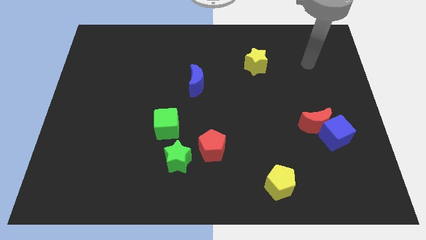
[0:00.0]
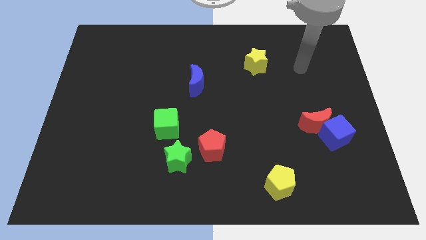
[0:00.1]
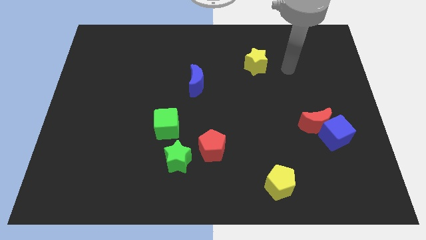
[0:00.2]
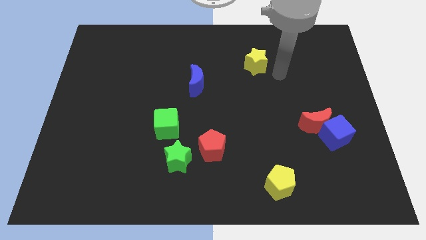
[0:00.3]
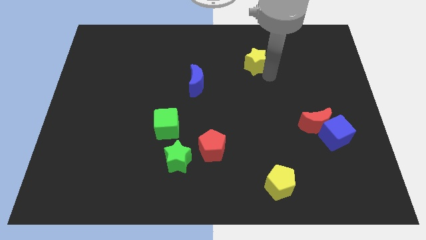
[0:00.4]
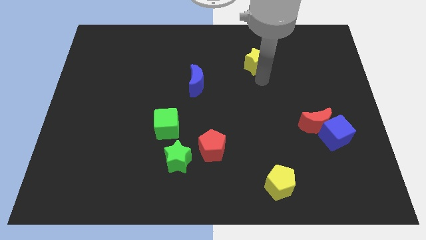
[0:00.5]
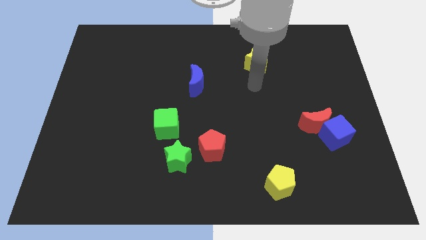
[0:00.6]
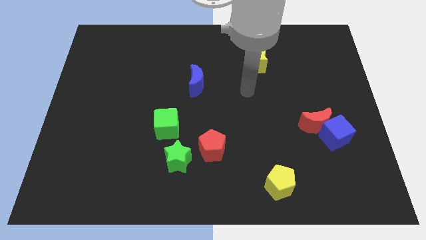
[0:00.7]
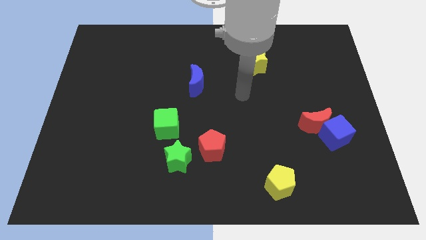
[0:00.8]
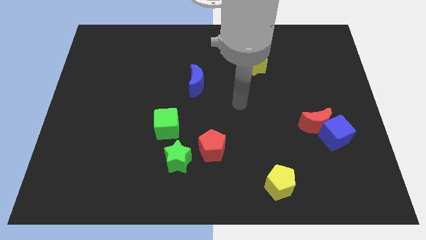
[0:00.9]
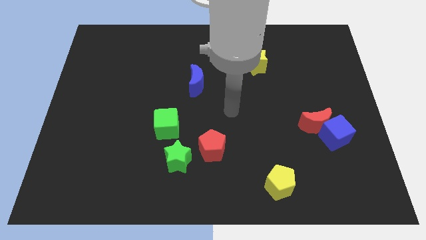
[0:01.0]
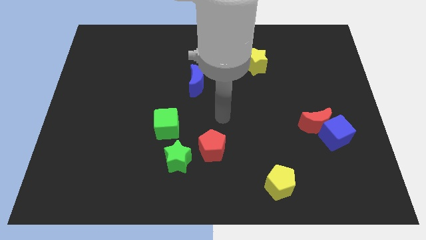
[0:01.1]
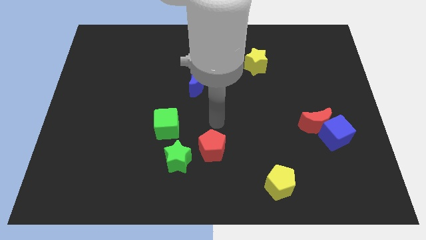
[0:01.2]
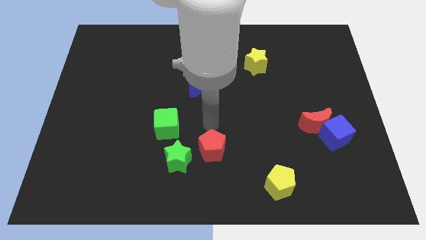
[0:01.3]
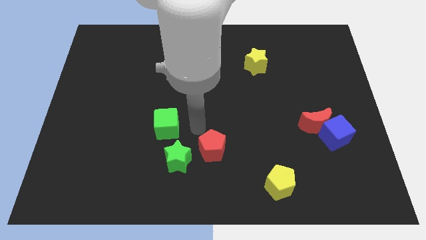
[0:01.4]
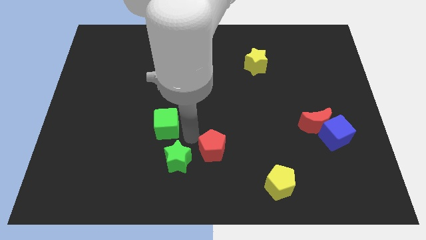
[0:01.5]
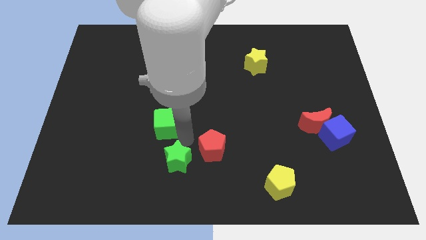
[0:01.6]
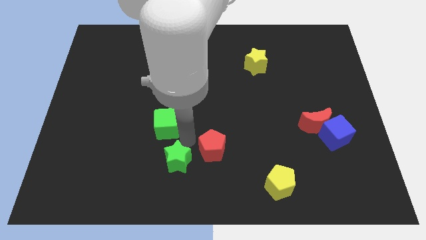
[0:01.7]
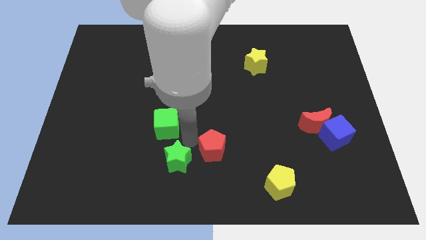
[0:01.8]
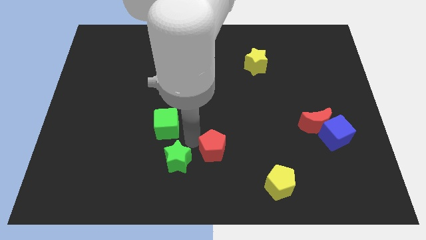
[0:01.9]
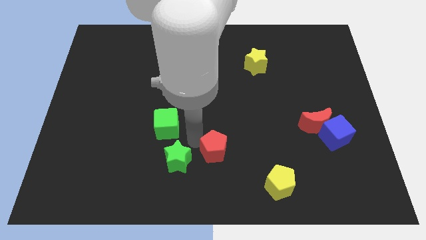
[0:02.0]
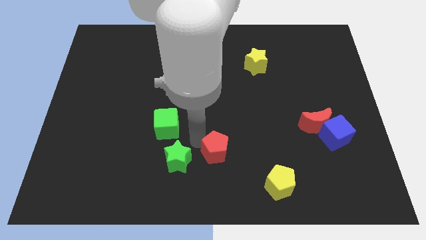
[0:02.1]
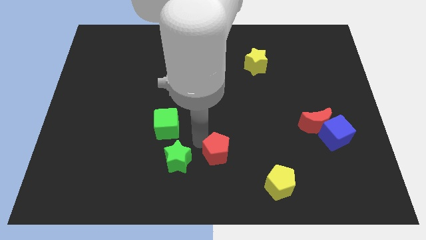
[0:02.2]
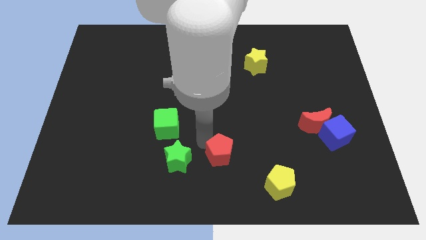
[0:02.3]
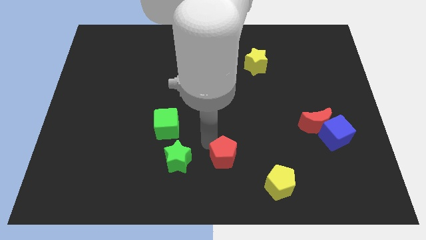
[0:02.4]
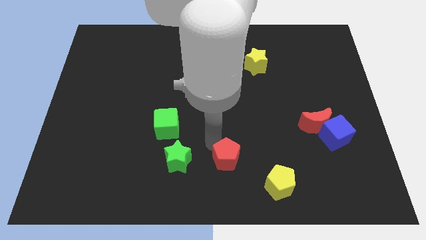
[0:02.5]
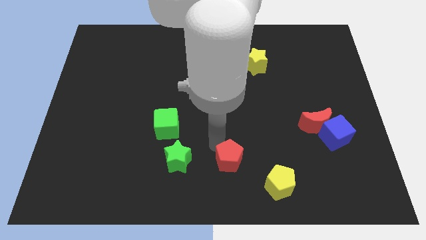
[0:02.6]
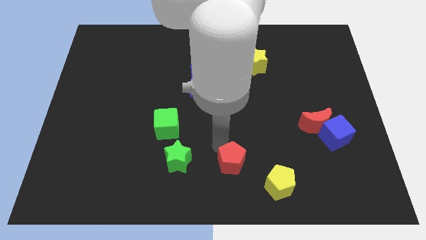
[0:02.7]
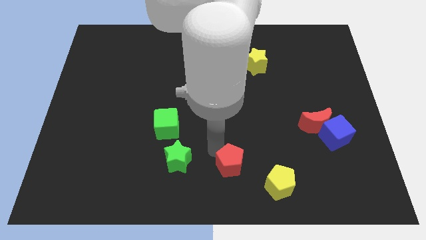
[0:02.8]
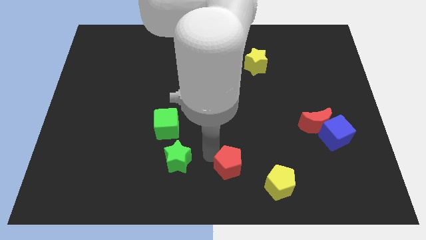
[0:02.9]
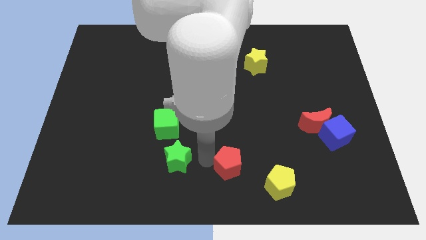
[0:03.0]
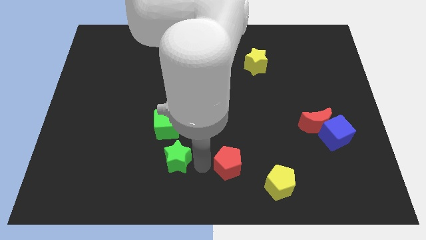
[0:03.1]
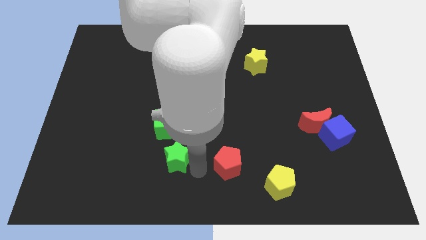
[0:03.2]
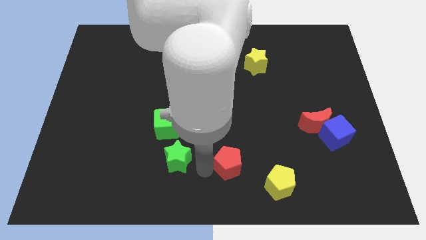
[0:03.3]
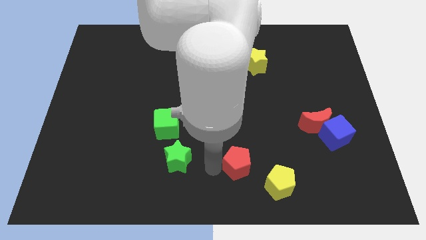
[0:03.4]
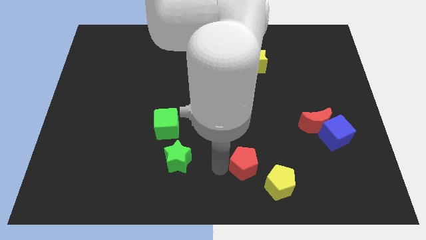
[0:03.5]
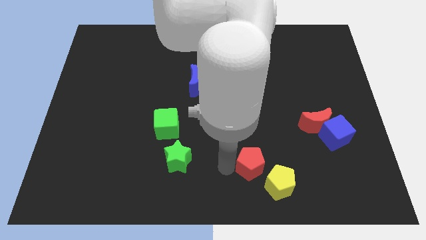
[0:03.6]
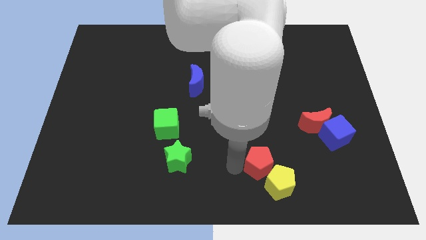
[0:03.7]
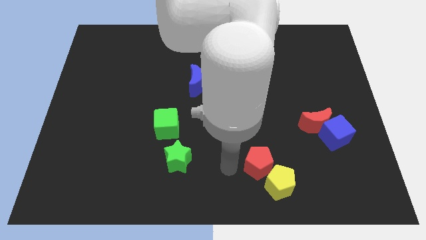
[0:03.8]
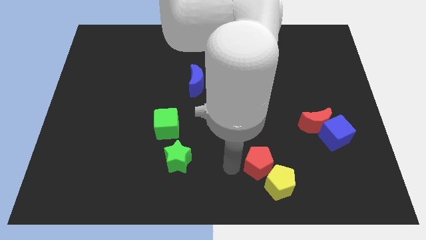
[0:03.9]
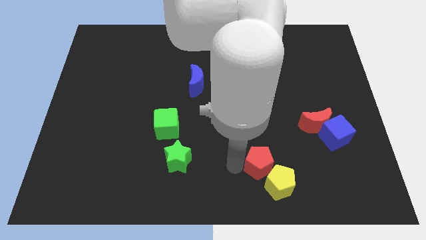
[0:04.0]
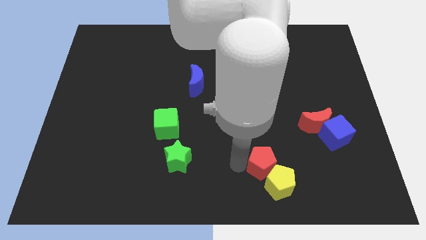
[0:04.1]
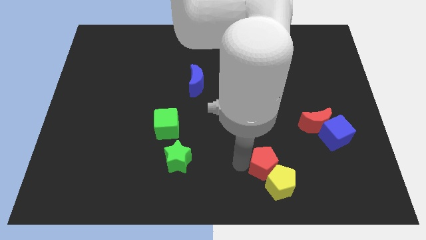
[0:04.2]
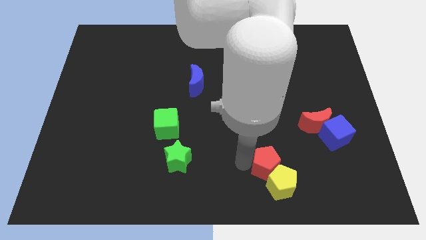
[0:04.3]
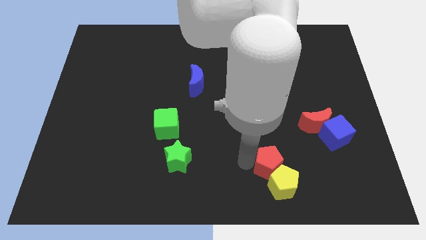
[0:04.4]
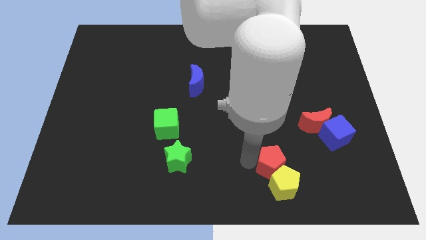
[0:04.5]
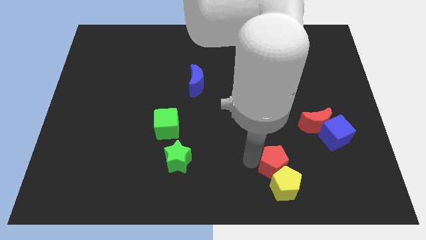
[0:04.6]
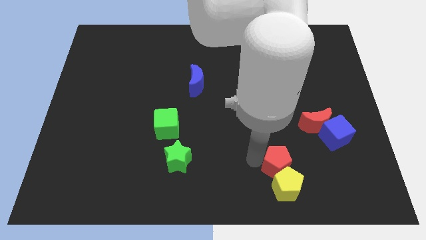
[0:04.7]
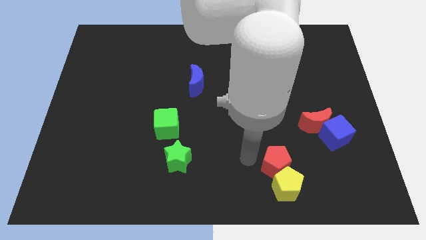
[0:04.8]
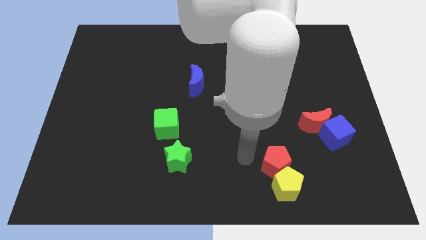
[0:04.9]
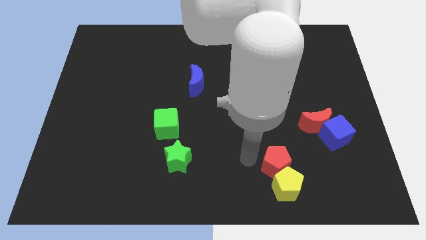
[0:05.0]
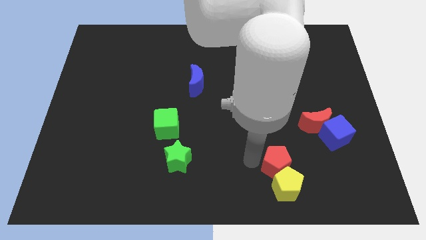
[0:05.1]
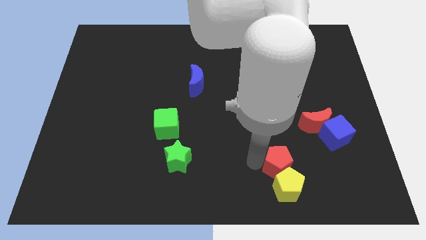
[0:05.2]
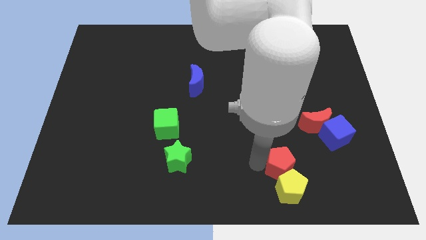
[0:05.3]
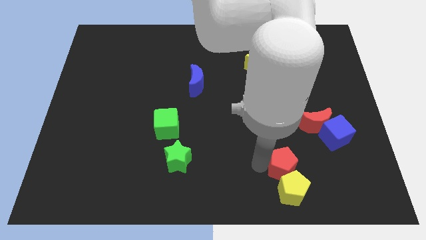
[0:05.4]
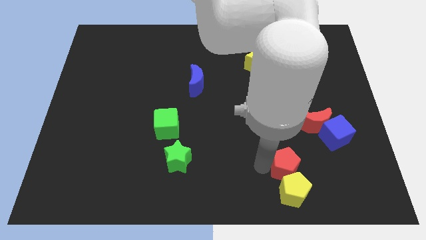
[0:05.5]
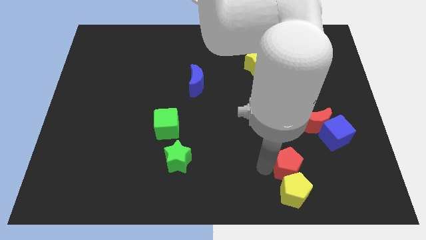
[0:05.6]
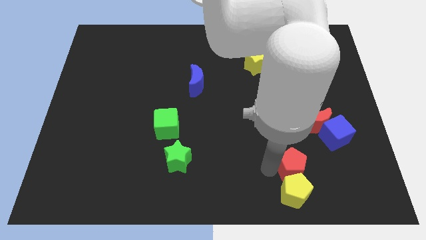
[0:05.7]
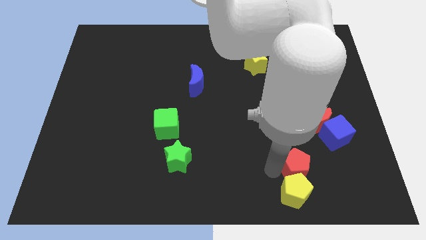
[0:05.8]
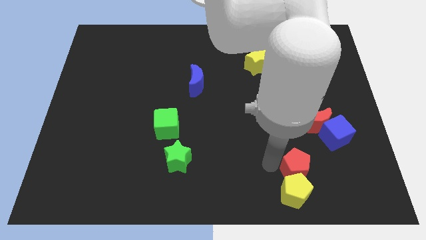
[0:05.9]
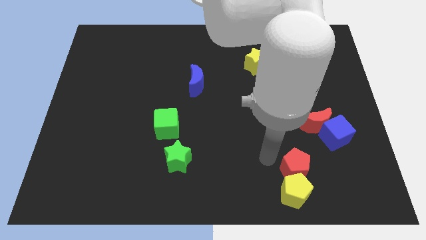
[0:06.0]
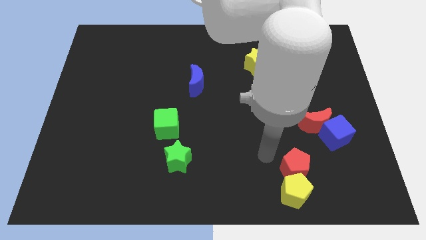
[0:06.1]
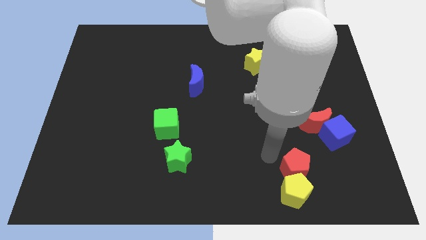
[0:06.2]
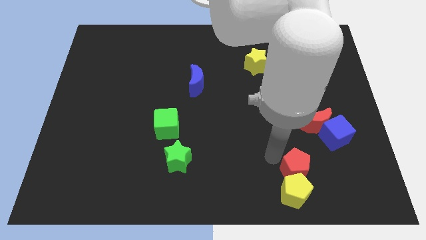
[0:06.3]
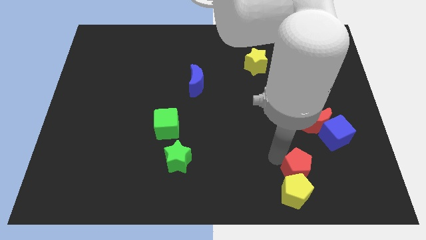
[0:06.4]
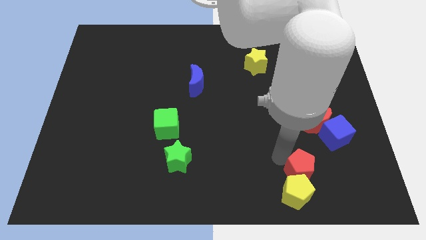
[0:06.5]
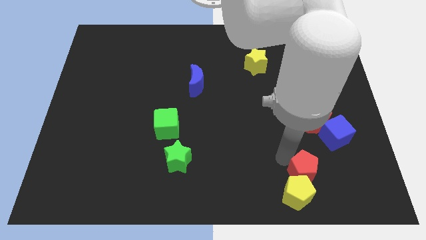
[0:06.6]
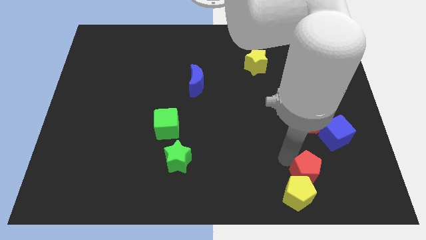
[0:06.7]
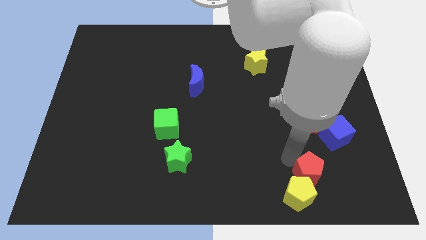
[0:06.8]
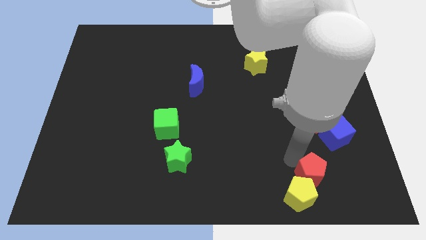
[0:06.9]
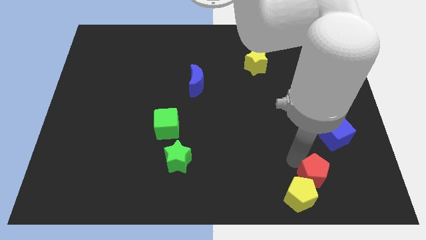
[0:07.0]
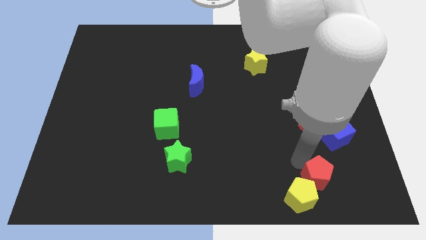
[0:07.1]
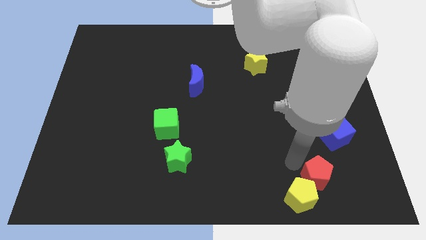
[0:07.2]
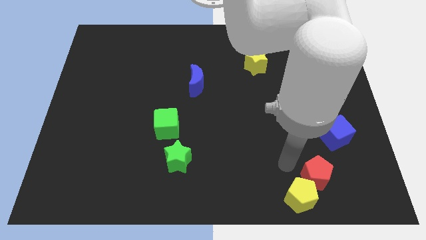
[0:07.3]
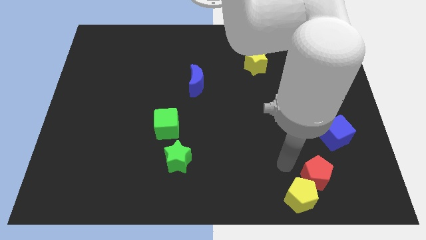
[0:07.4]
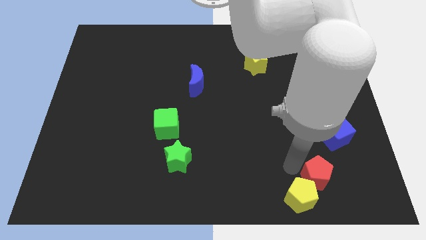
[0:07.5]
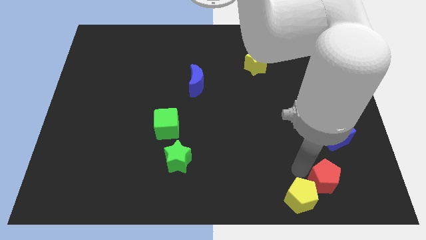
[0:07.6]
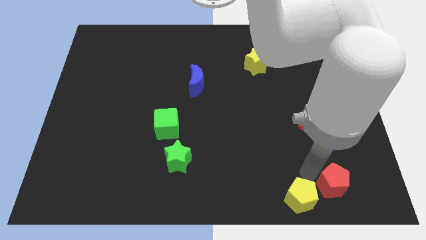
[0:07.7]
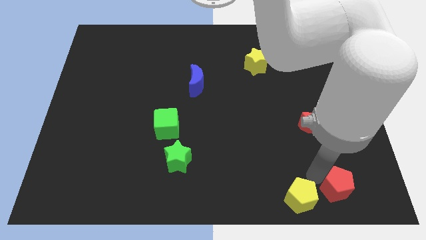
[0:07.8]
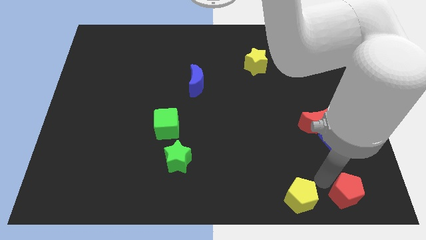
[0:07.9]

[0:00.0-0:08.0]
push the red pentagon to the bottom right corner
